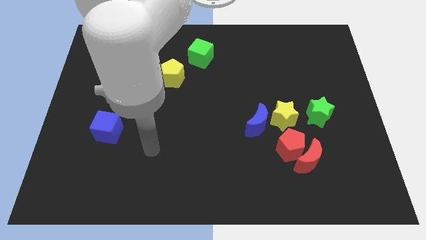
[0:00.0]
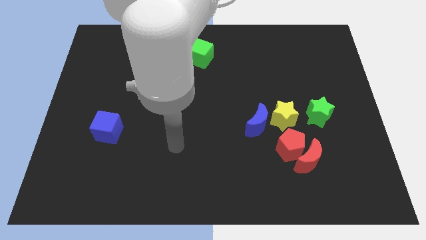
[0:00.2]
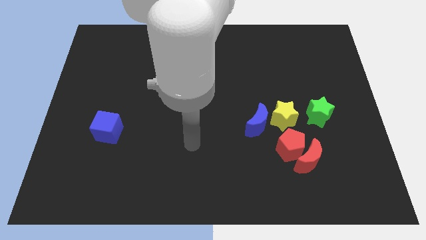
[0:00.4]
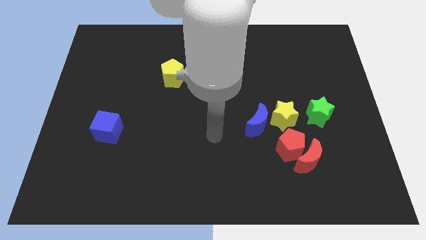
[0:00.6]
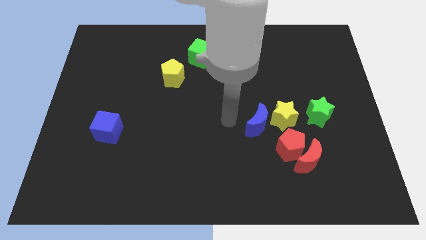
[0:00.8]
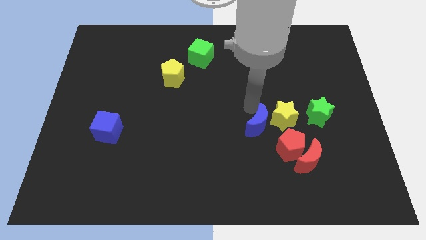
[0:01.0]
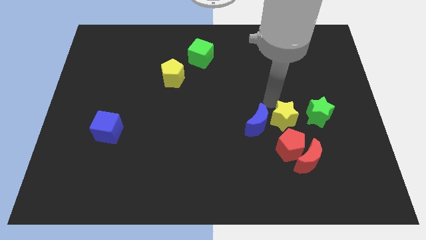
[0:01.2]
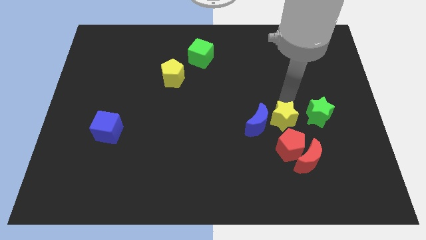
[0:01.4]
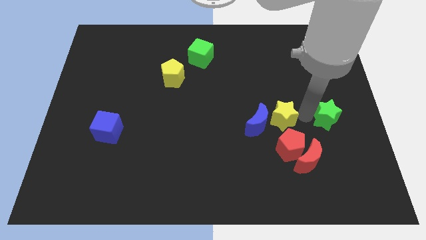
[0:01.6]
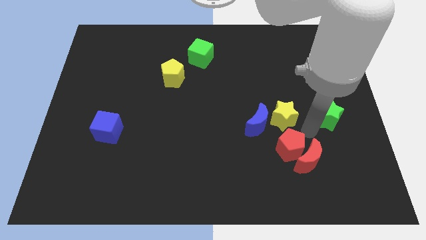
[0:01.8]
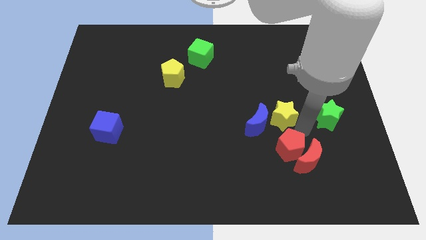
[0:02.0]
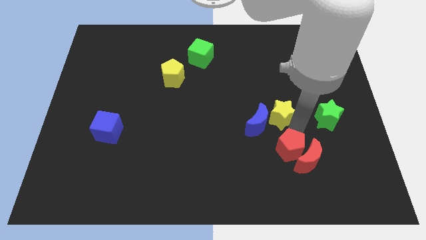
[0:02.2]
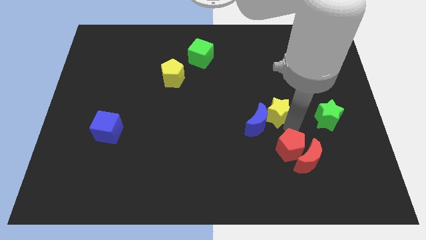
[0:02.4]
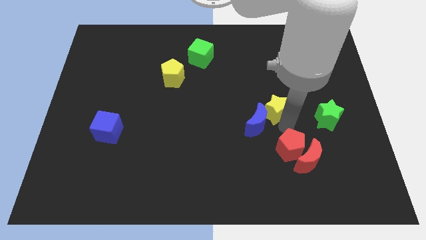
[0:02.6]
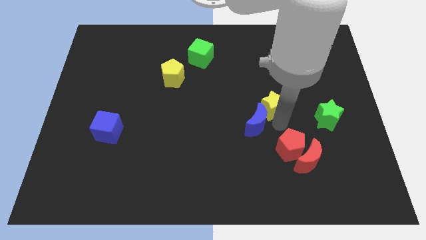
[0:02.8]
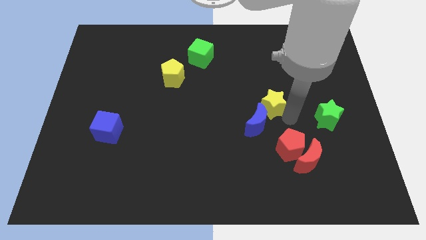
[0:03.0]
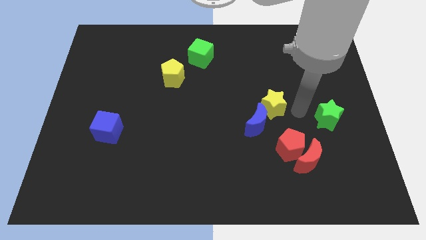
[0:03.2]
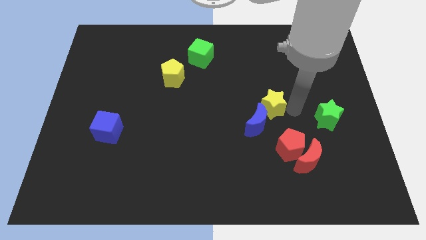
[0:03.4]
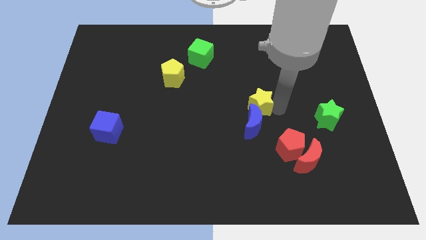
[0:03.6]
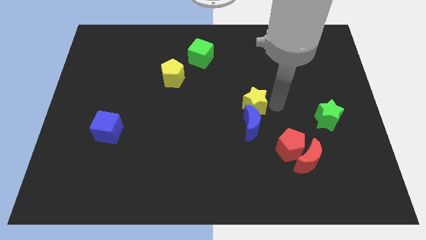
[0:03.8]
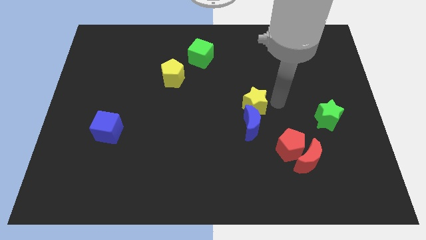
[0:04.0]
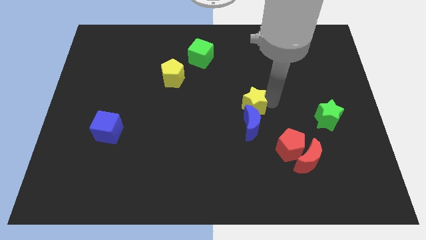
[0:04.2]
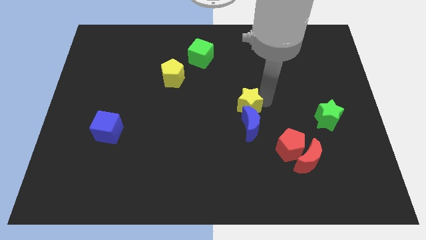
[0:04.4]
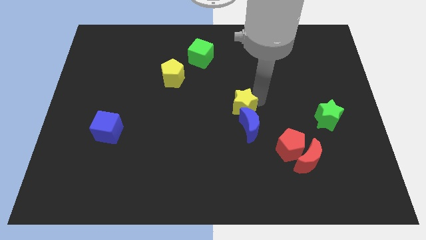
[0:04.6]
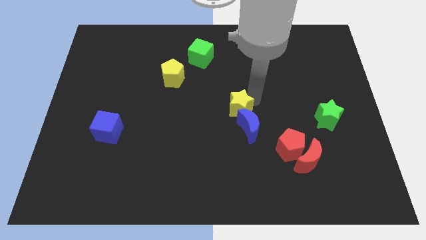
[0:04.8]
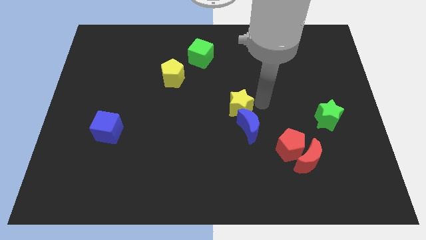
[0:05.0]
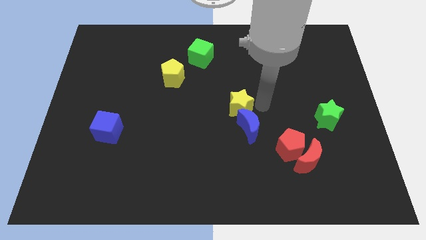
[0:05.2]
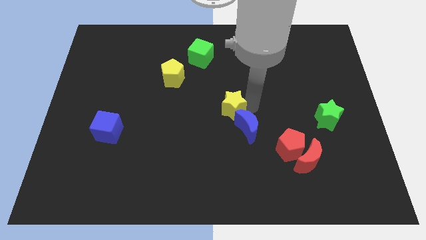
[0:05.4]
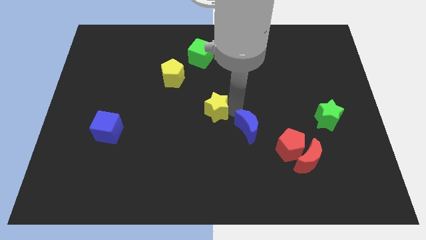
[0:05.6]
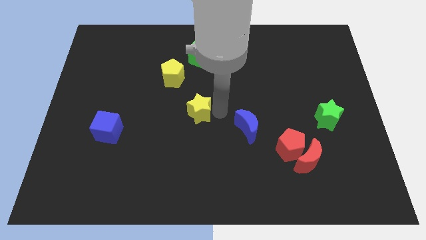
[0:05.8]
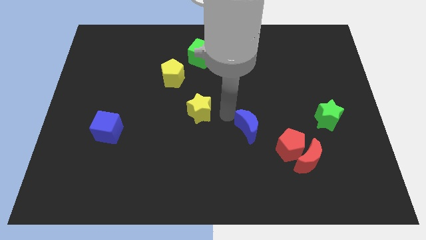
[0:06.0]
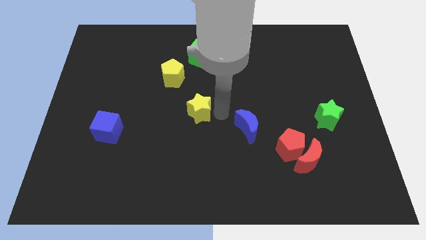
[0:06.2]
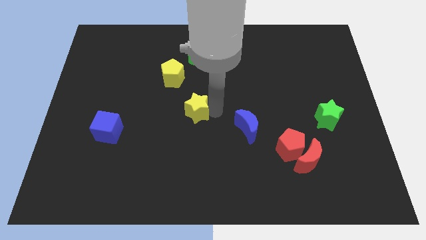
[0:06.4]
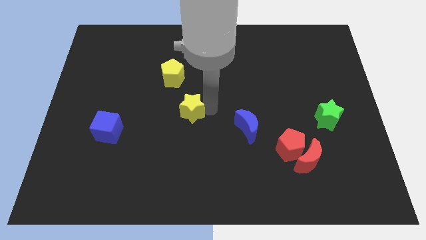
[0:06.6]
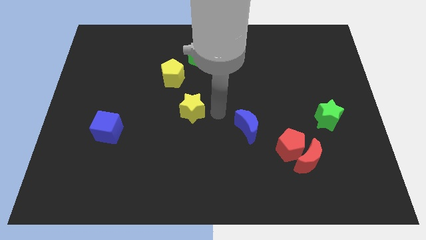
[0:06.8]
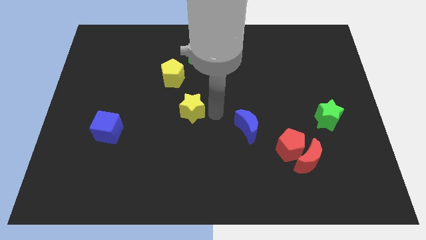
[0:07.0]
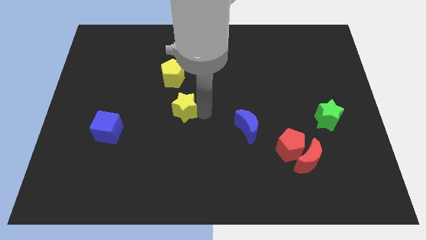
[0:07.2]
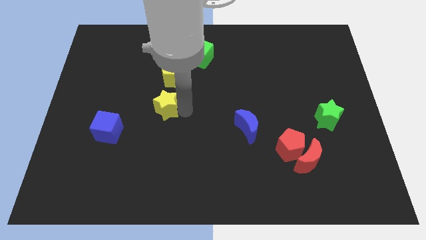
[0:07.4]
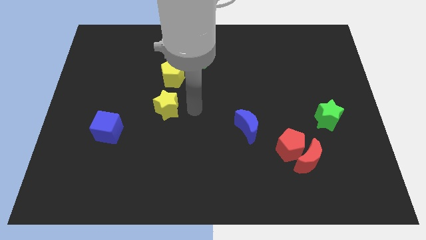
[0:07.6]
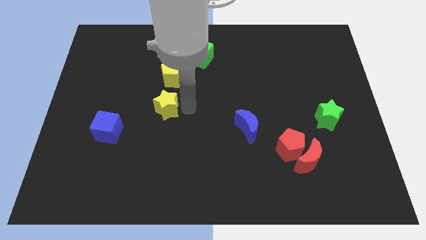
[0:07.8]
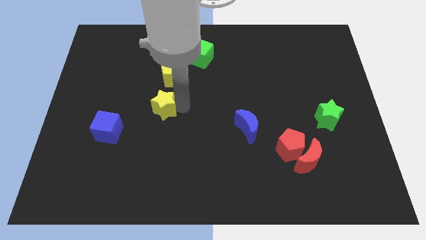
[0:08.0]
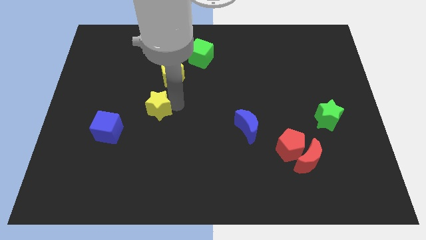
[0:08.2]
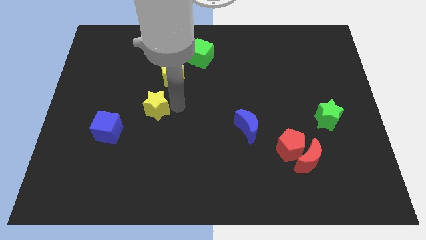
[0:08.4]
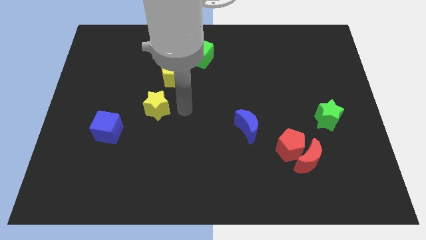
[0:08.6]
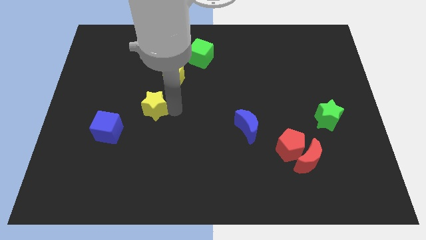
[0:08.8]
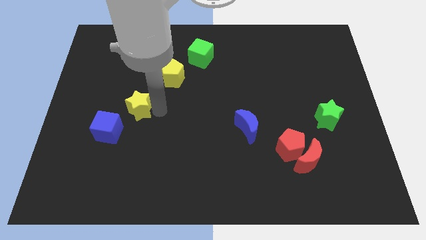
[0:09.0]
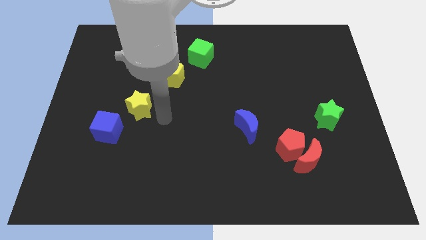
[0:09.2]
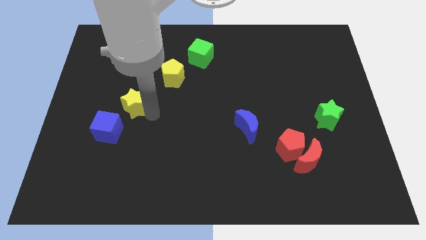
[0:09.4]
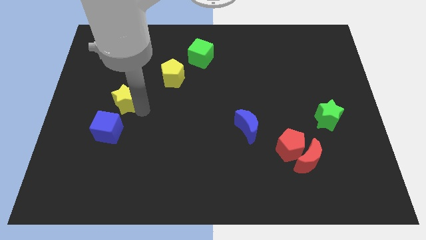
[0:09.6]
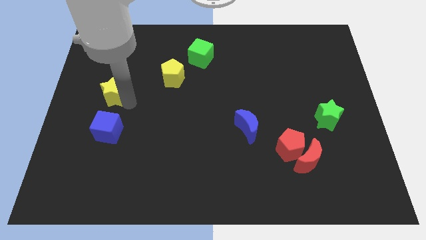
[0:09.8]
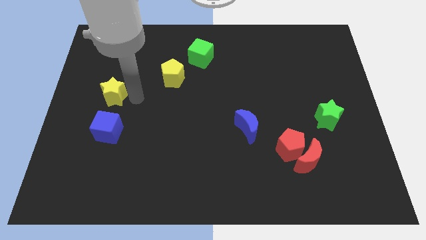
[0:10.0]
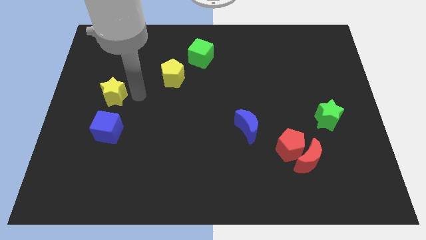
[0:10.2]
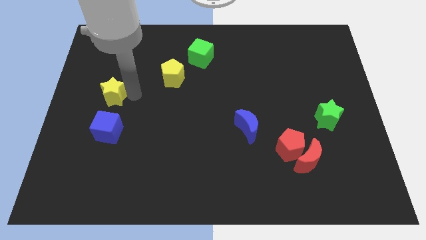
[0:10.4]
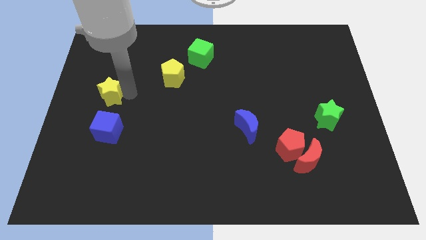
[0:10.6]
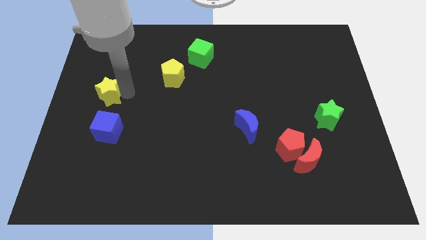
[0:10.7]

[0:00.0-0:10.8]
slide the yellow star to the left side of the board

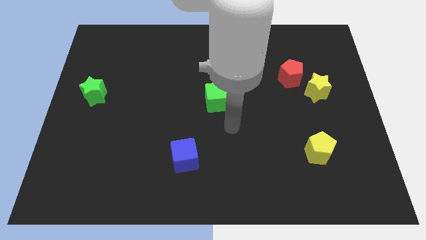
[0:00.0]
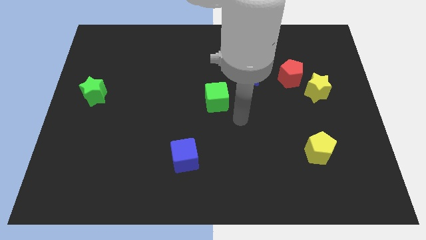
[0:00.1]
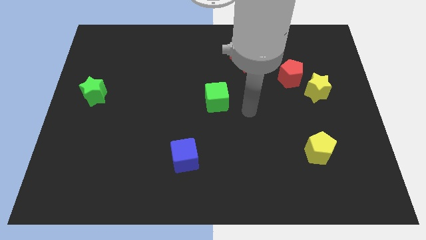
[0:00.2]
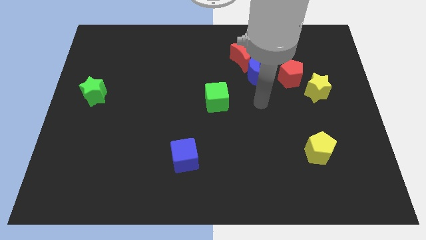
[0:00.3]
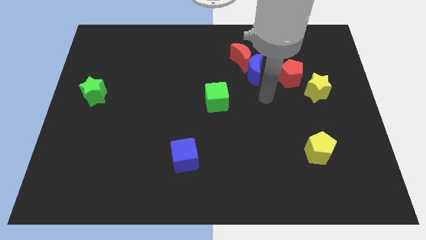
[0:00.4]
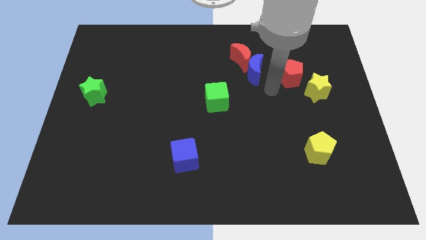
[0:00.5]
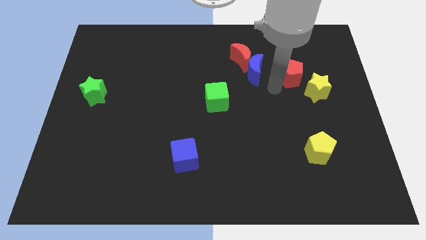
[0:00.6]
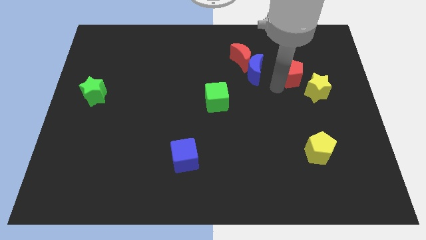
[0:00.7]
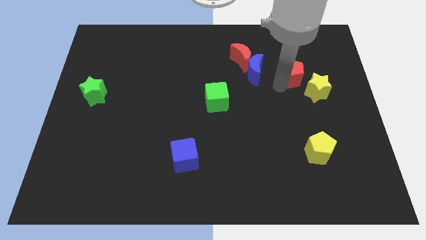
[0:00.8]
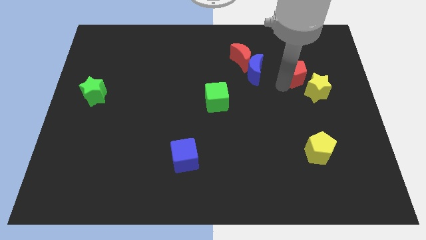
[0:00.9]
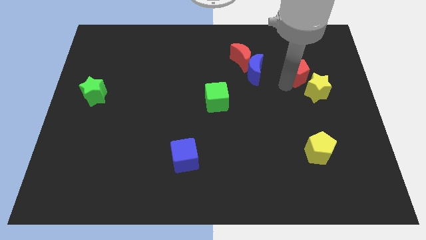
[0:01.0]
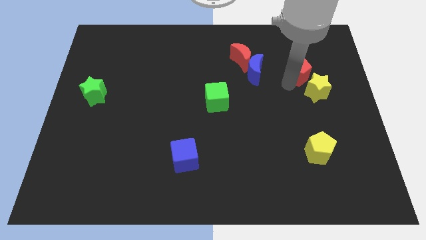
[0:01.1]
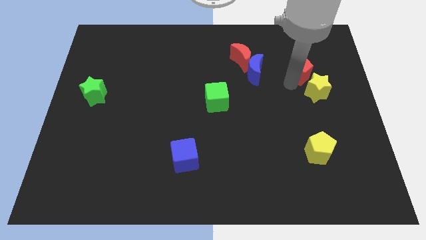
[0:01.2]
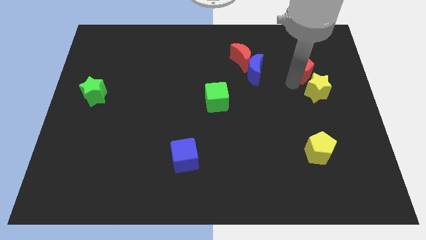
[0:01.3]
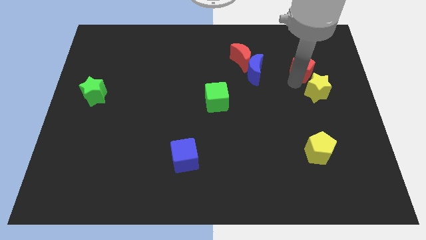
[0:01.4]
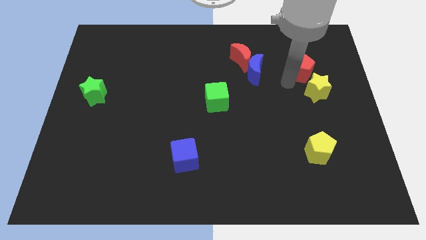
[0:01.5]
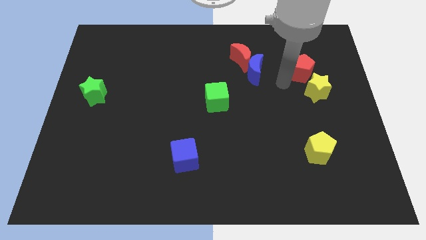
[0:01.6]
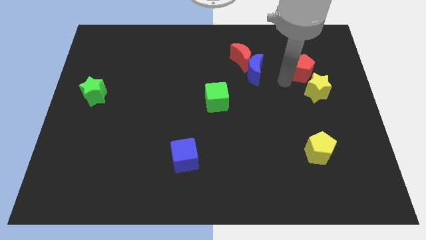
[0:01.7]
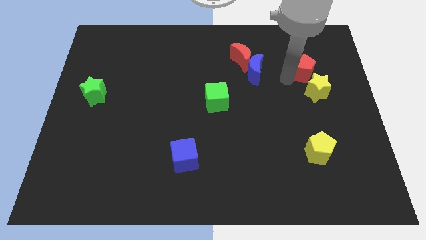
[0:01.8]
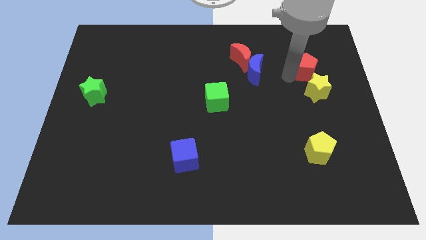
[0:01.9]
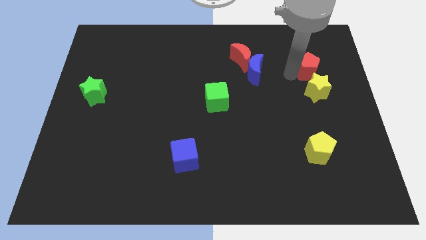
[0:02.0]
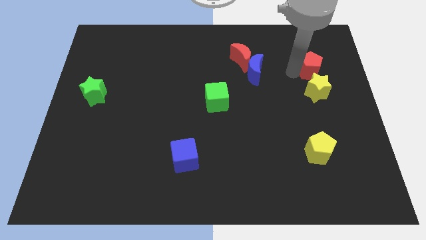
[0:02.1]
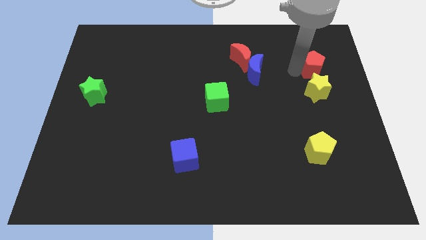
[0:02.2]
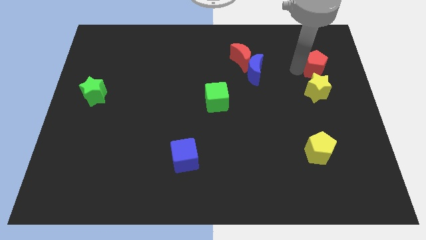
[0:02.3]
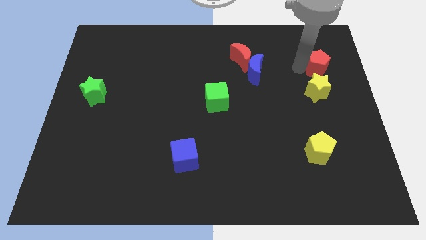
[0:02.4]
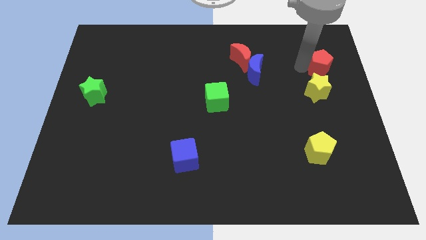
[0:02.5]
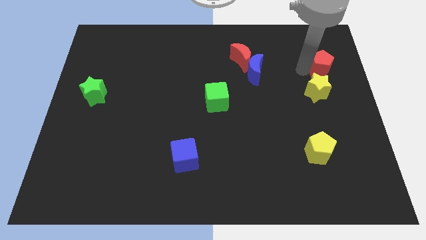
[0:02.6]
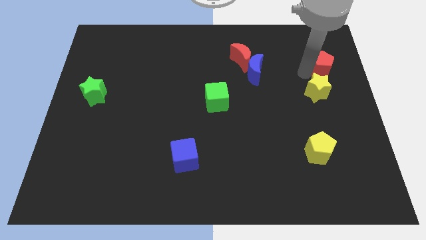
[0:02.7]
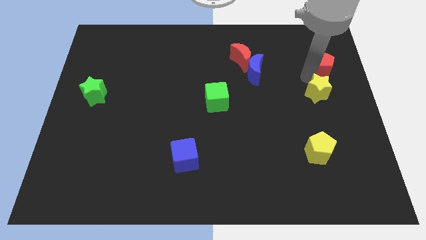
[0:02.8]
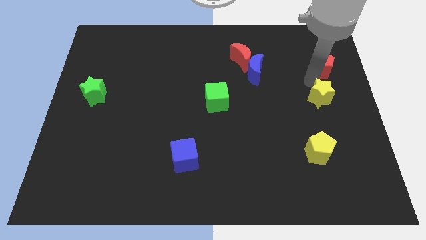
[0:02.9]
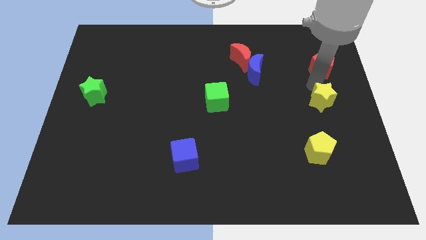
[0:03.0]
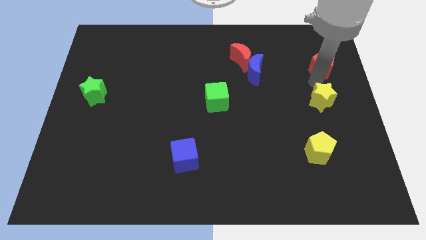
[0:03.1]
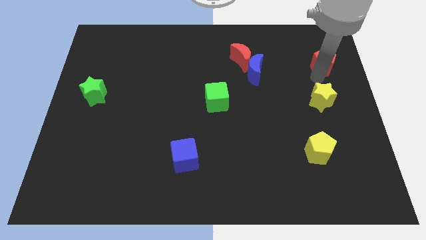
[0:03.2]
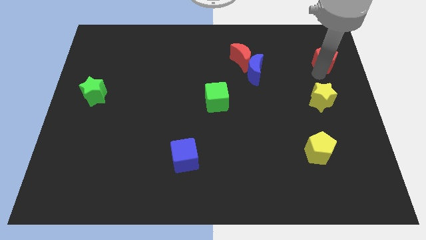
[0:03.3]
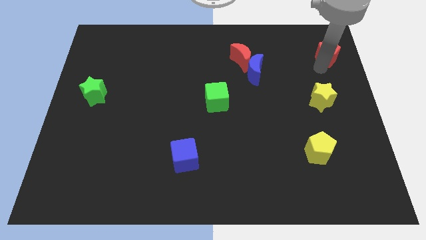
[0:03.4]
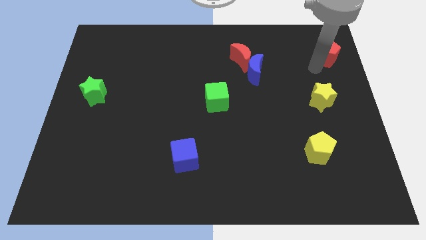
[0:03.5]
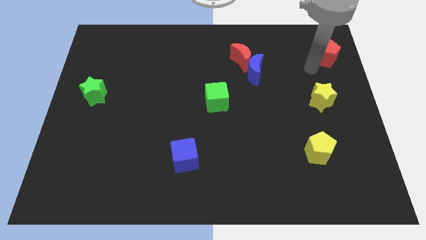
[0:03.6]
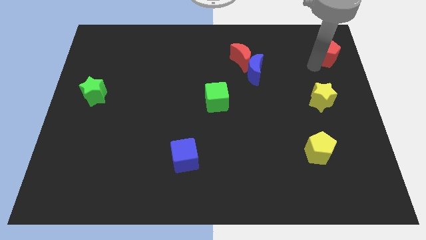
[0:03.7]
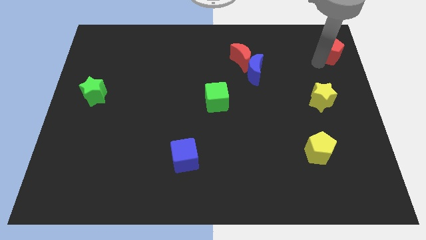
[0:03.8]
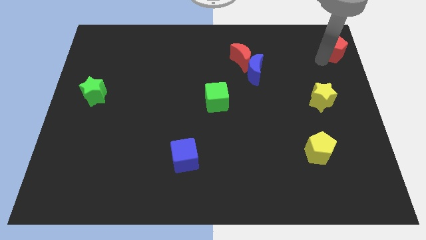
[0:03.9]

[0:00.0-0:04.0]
push the red pentagon to the top right
